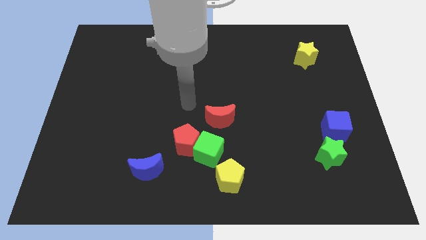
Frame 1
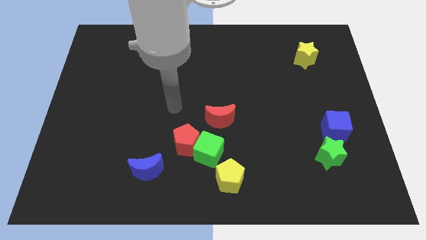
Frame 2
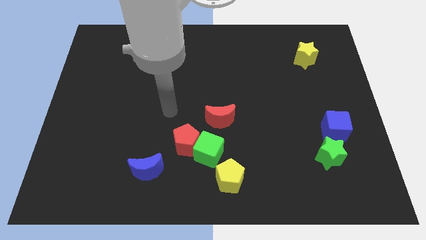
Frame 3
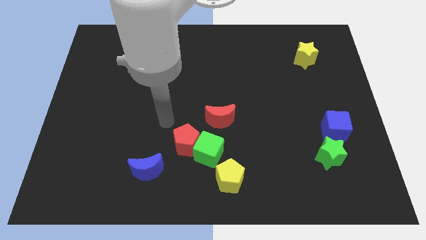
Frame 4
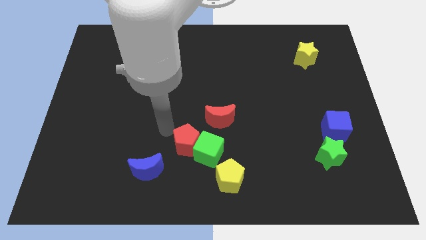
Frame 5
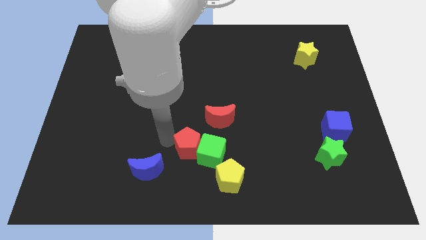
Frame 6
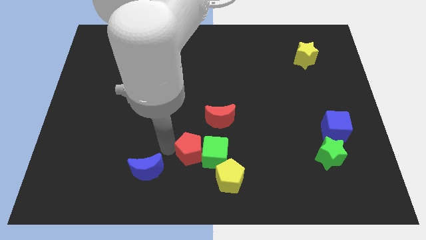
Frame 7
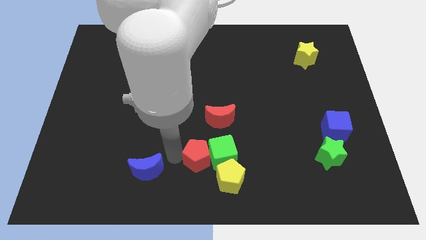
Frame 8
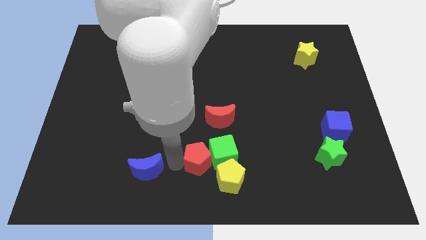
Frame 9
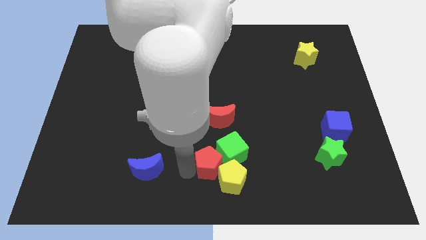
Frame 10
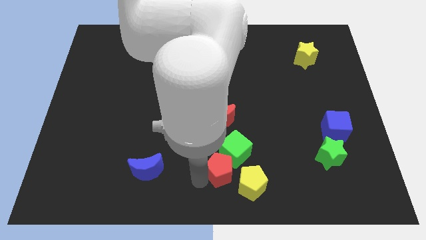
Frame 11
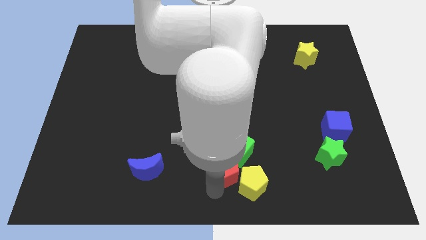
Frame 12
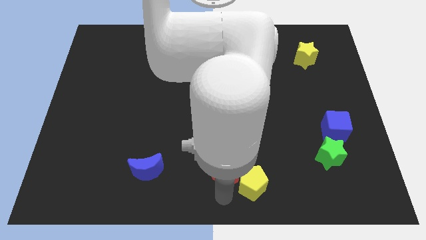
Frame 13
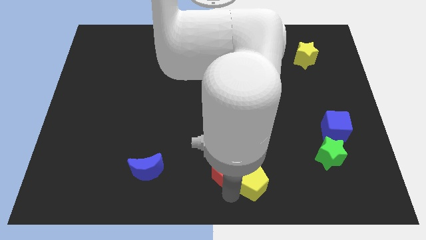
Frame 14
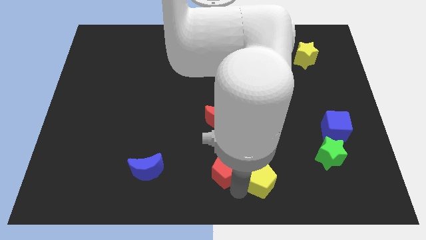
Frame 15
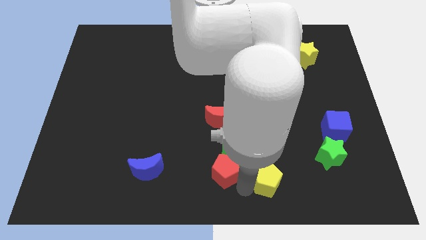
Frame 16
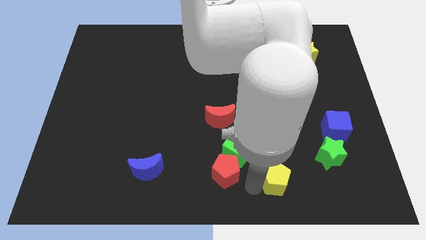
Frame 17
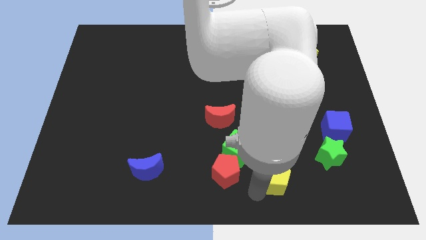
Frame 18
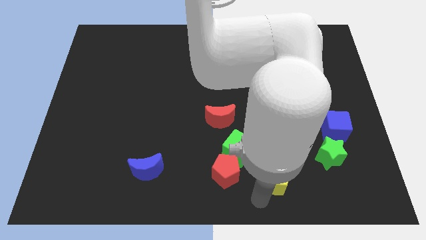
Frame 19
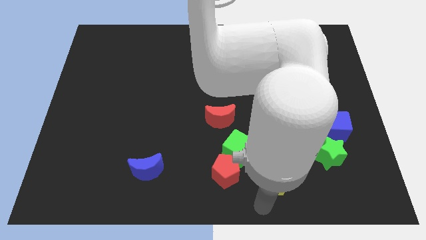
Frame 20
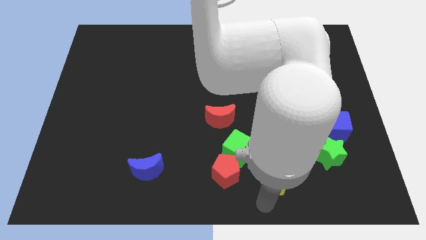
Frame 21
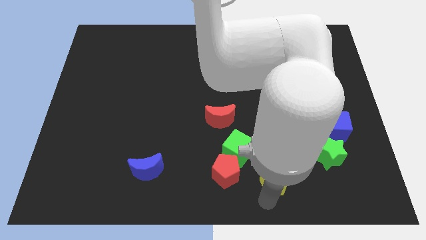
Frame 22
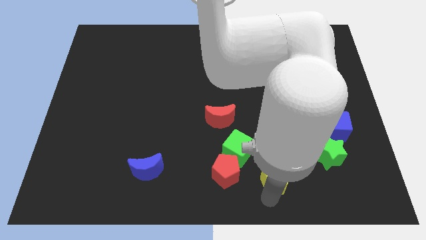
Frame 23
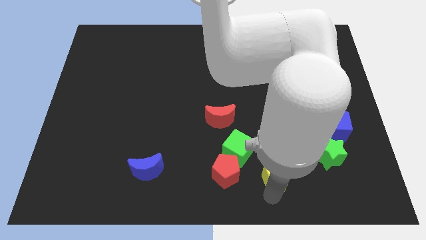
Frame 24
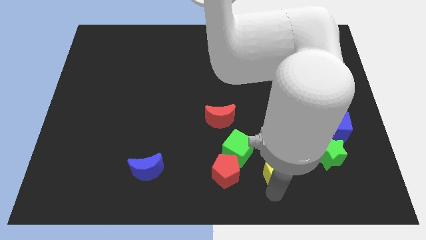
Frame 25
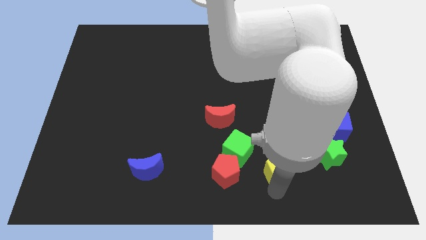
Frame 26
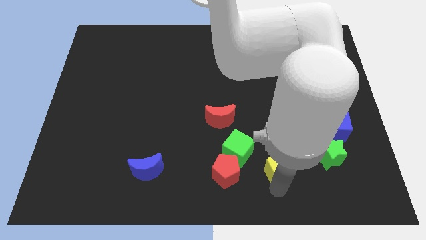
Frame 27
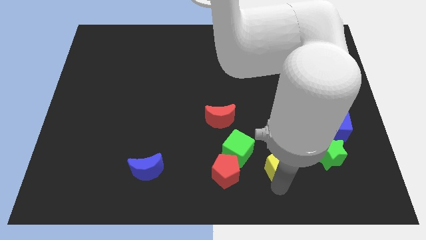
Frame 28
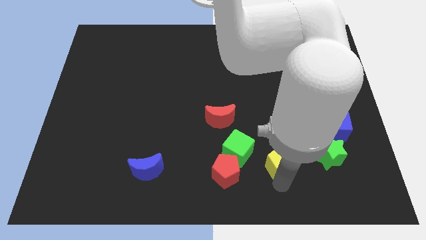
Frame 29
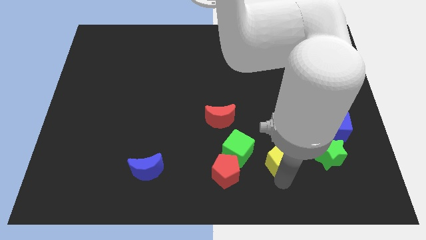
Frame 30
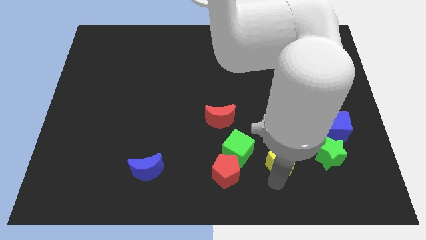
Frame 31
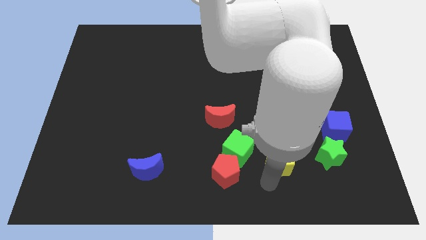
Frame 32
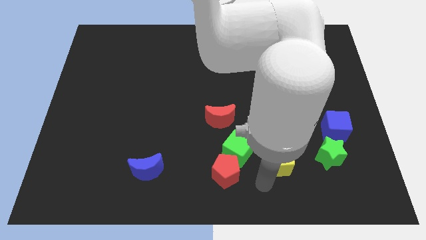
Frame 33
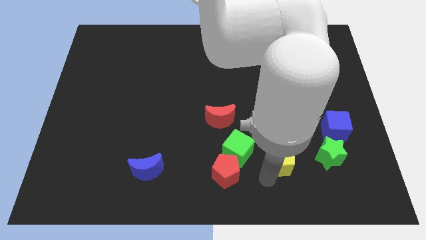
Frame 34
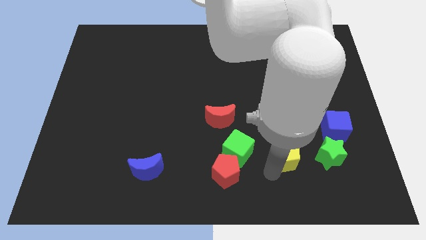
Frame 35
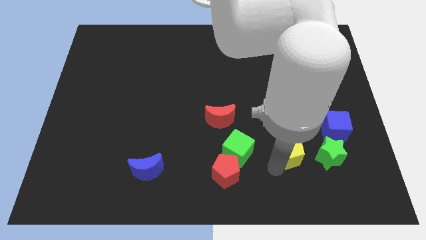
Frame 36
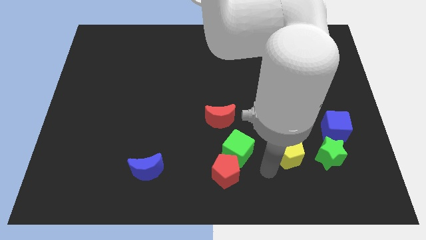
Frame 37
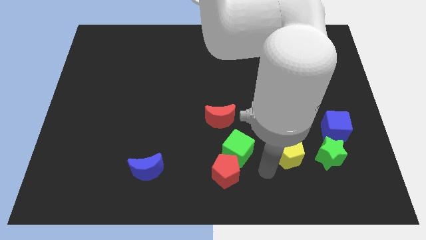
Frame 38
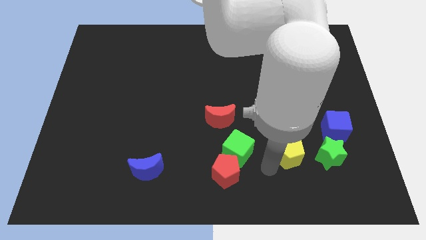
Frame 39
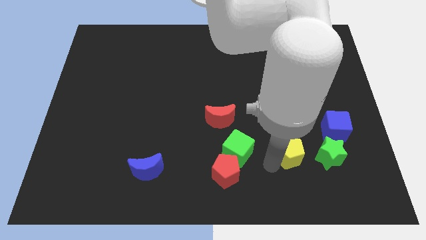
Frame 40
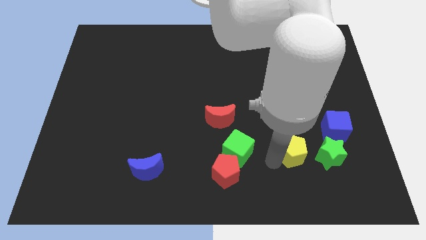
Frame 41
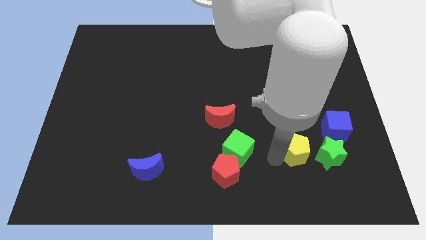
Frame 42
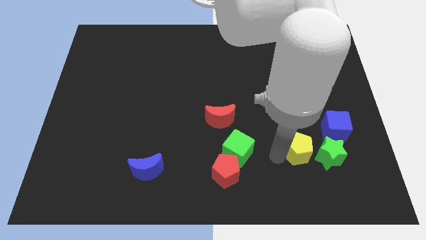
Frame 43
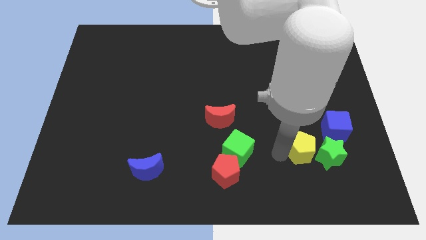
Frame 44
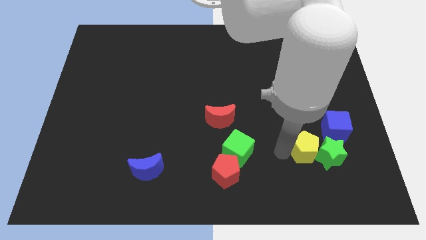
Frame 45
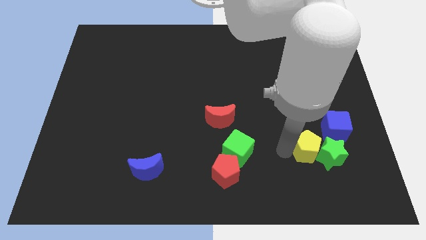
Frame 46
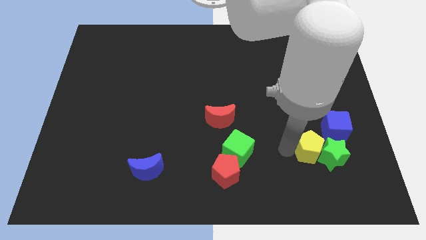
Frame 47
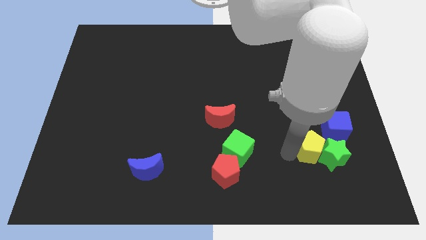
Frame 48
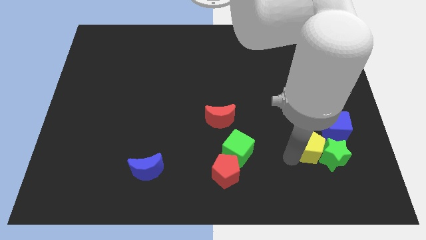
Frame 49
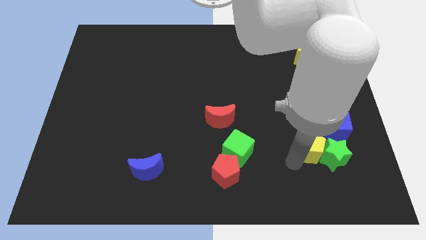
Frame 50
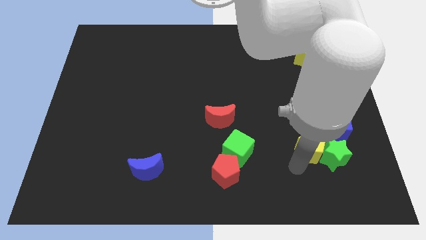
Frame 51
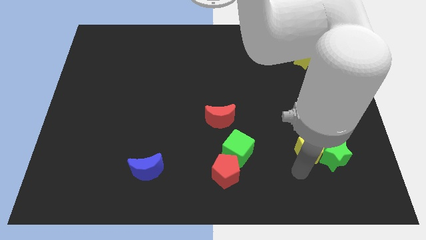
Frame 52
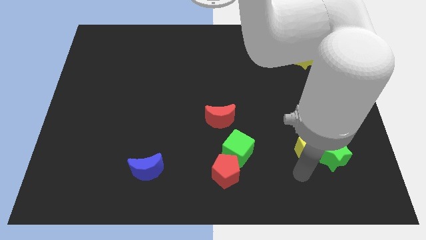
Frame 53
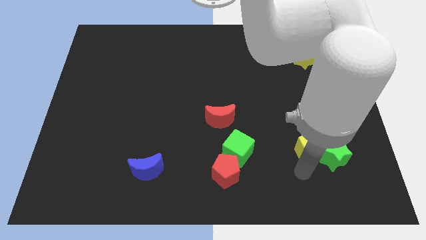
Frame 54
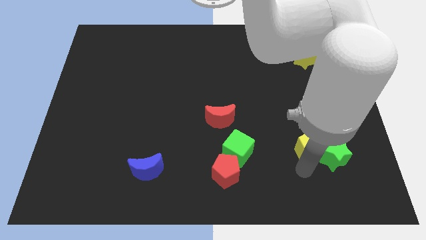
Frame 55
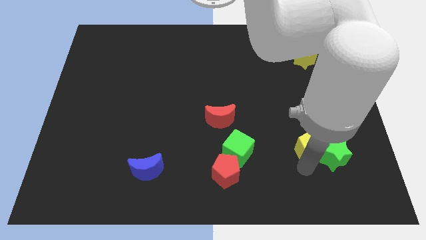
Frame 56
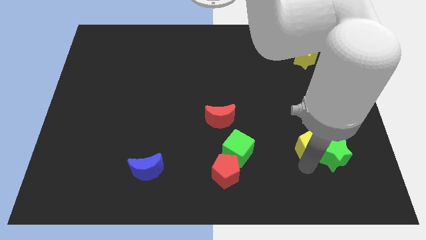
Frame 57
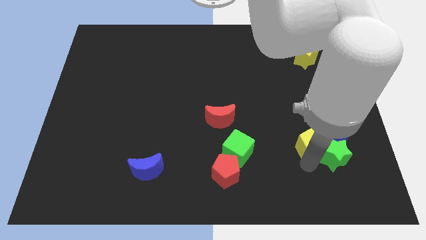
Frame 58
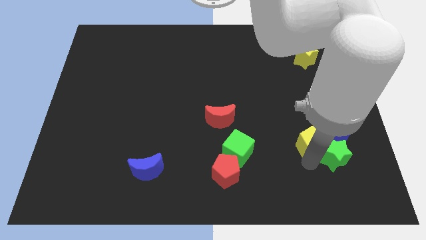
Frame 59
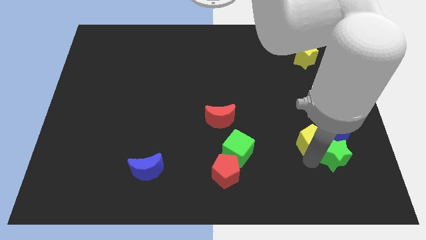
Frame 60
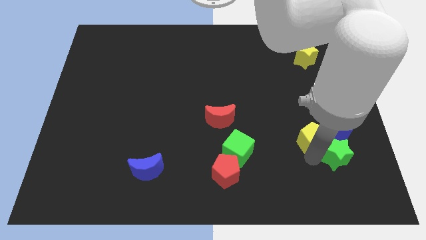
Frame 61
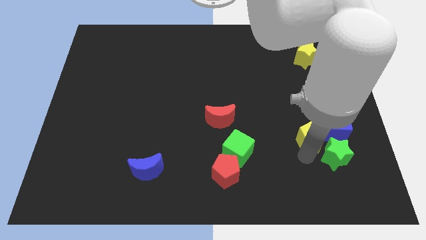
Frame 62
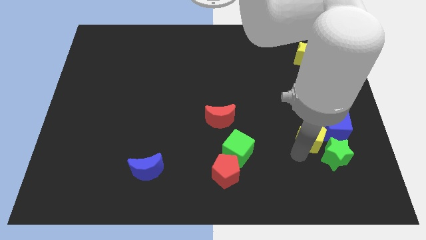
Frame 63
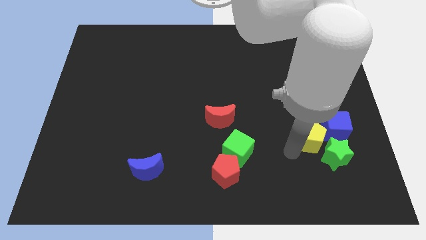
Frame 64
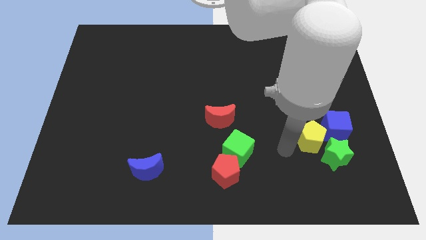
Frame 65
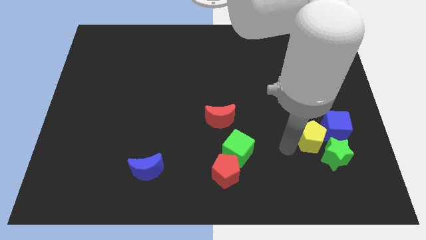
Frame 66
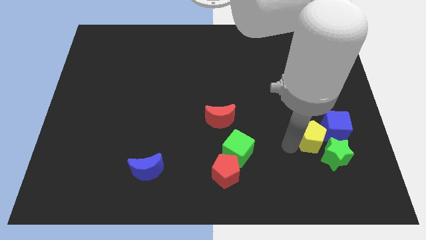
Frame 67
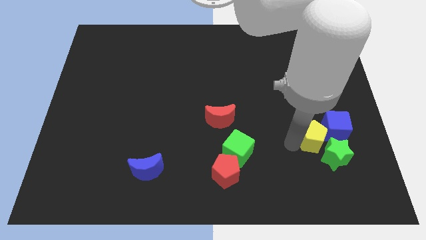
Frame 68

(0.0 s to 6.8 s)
slide the yellow pentagon next to the blue cube

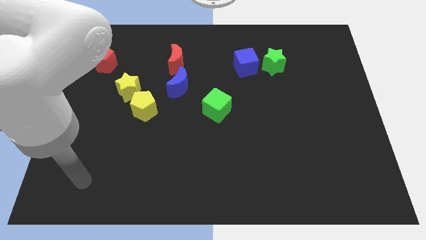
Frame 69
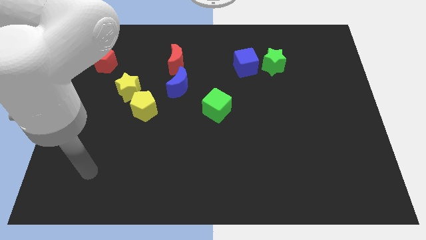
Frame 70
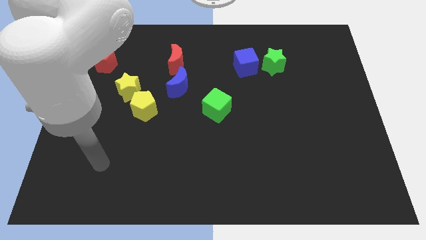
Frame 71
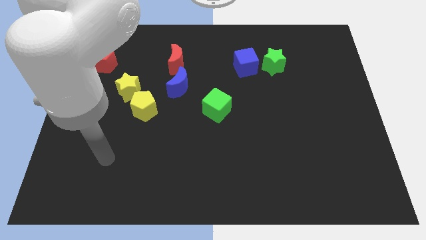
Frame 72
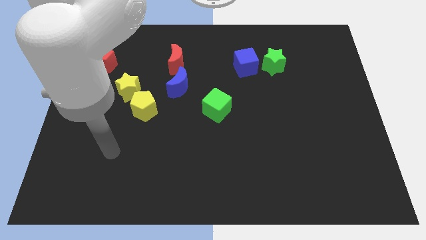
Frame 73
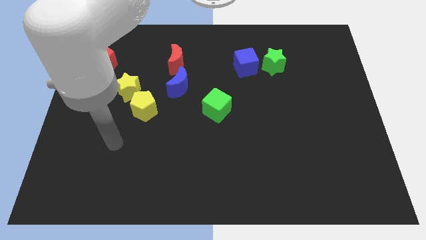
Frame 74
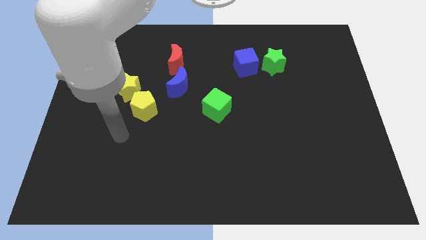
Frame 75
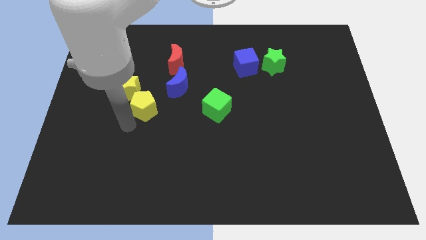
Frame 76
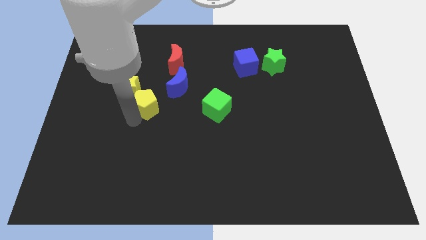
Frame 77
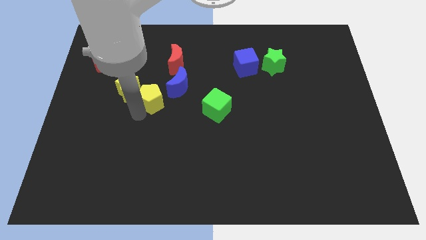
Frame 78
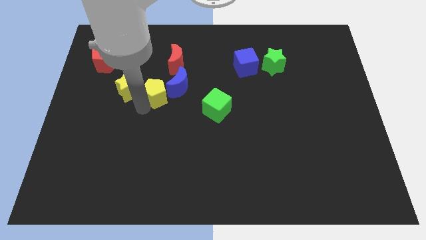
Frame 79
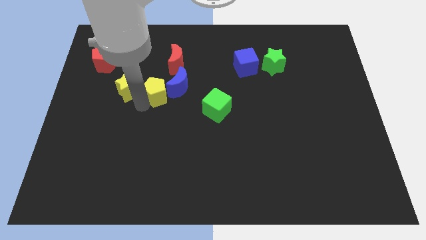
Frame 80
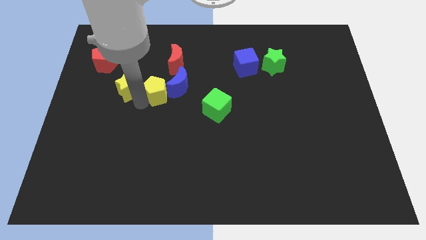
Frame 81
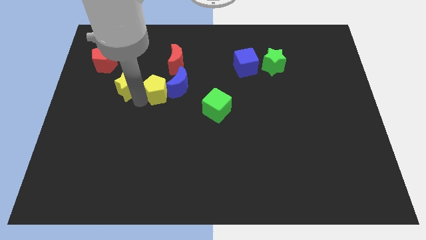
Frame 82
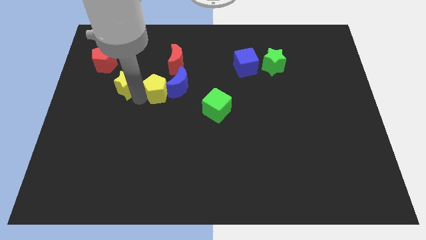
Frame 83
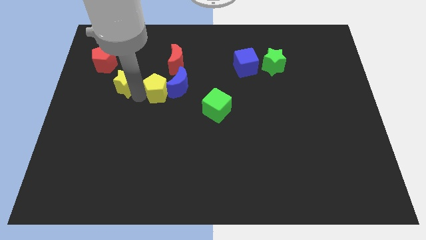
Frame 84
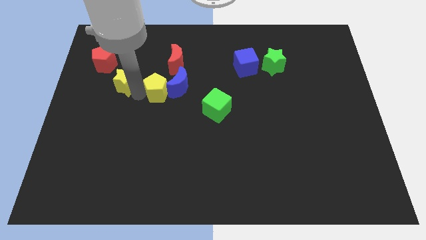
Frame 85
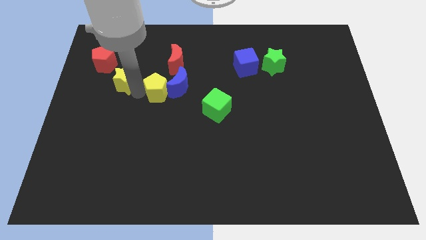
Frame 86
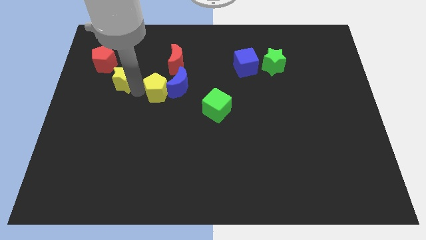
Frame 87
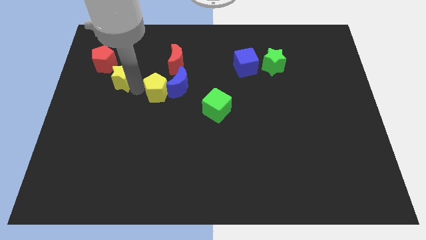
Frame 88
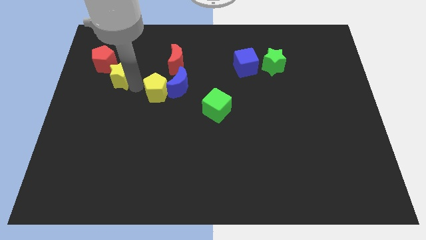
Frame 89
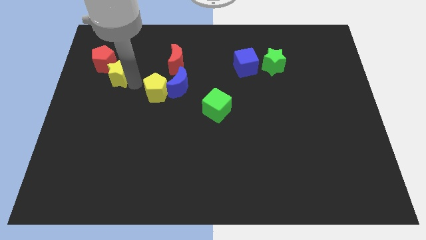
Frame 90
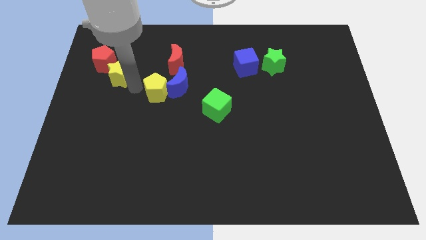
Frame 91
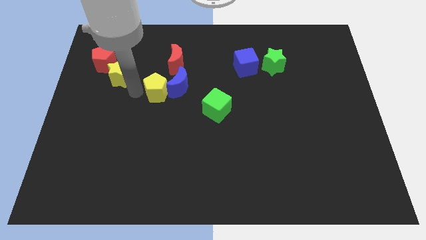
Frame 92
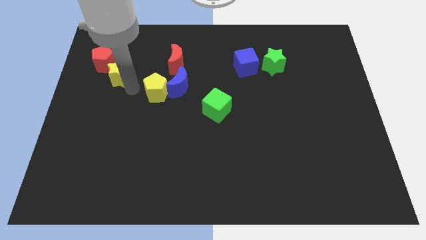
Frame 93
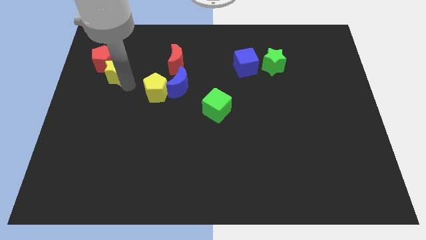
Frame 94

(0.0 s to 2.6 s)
put the yellow star next to the red pentagon
